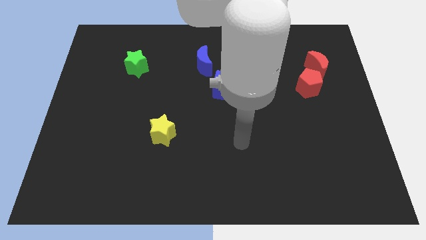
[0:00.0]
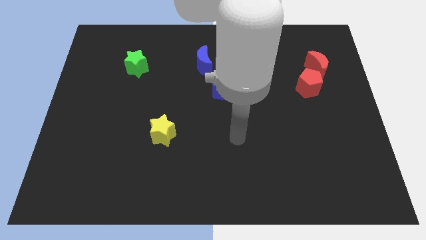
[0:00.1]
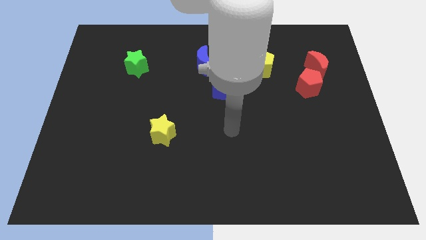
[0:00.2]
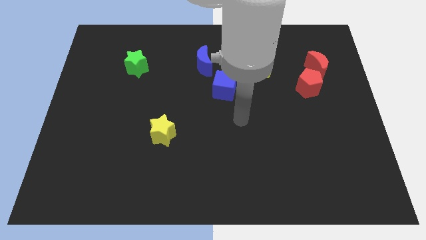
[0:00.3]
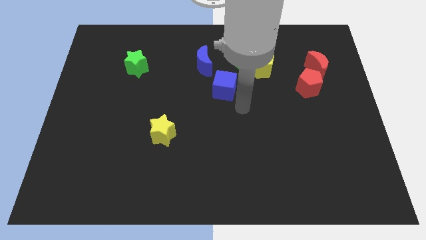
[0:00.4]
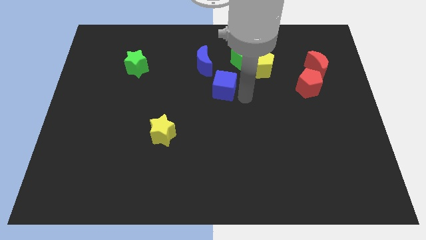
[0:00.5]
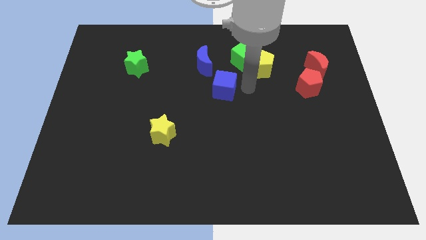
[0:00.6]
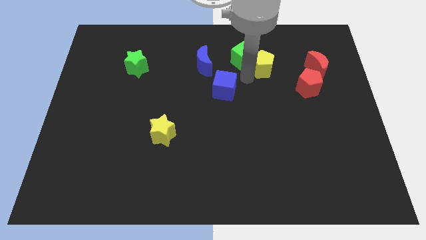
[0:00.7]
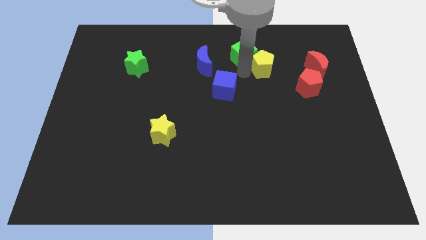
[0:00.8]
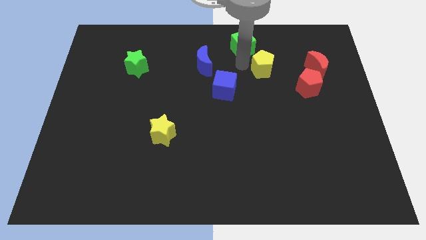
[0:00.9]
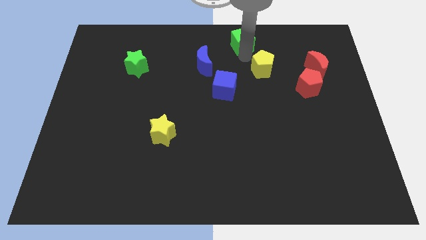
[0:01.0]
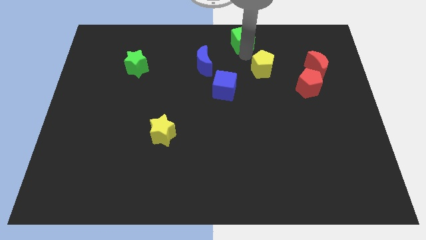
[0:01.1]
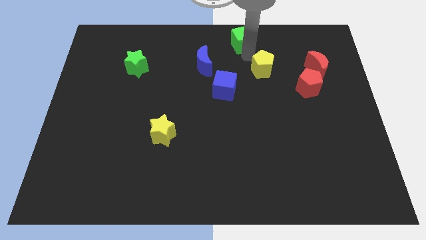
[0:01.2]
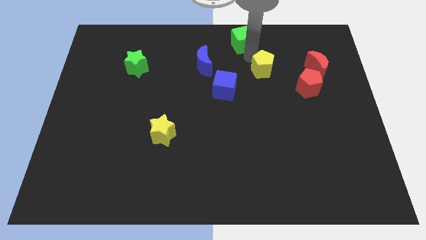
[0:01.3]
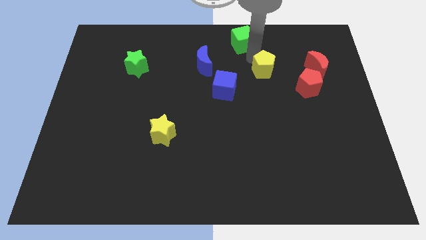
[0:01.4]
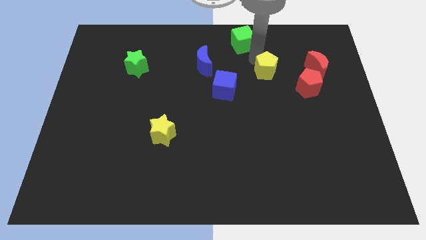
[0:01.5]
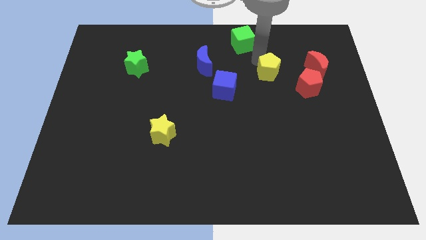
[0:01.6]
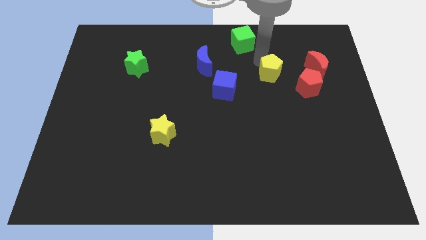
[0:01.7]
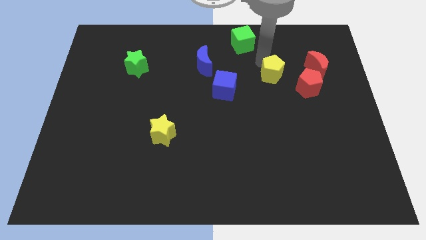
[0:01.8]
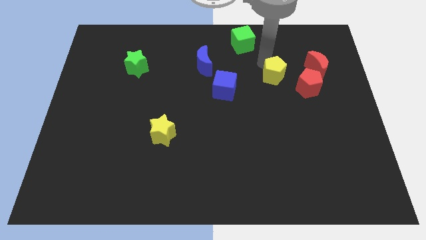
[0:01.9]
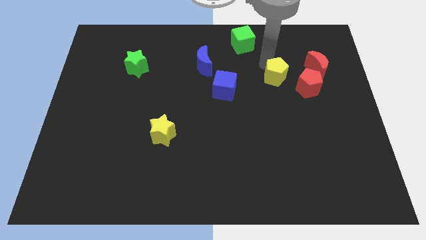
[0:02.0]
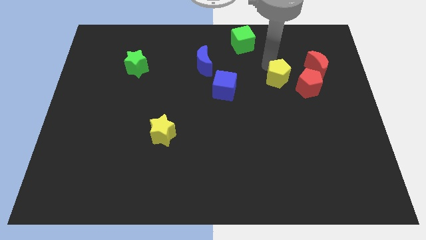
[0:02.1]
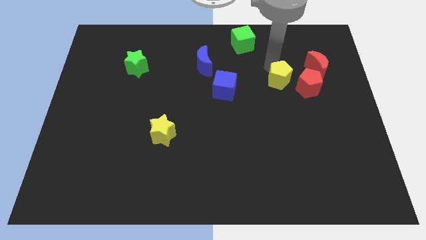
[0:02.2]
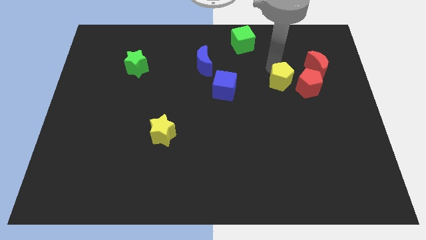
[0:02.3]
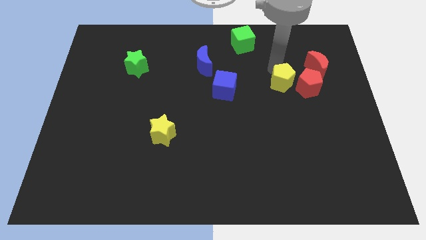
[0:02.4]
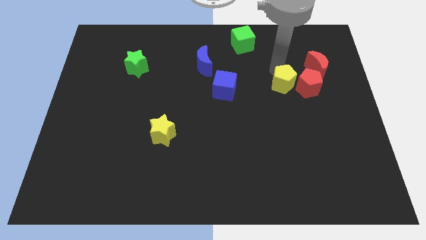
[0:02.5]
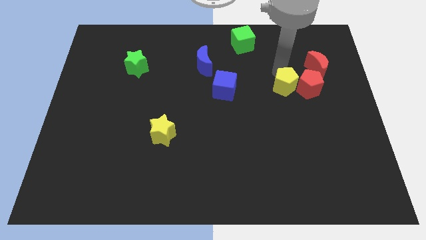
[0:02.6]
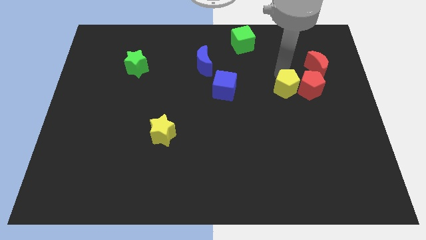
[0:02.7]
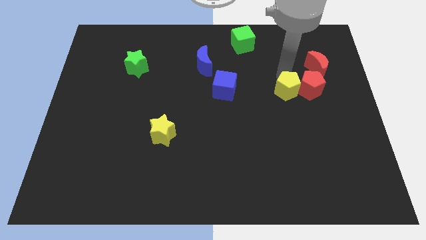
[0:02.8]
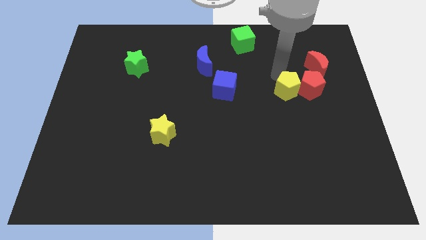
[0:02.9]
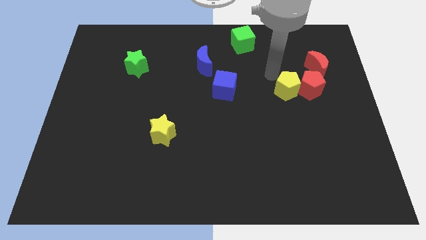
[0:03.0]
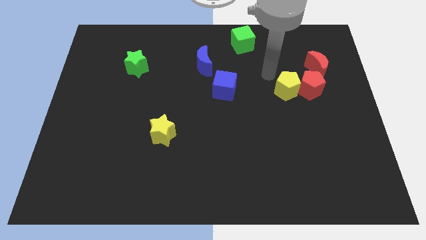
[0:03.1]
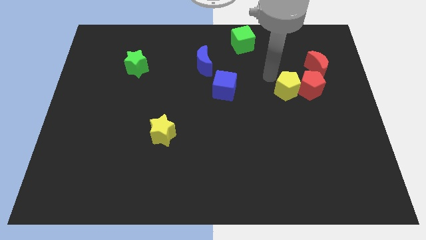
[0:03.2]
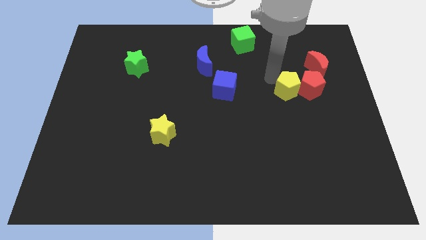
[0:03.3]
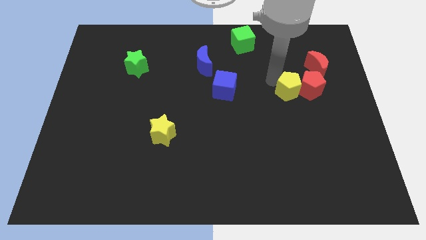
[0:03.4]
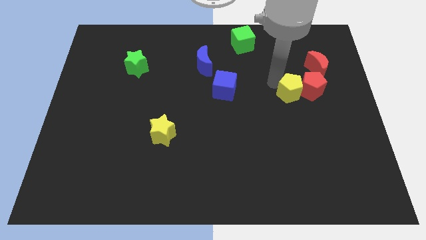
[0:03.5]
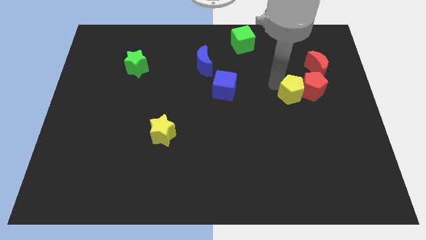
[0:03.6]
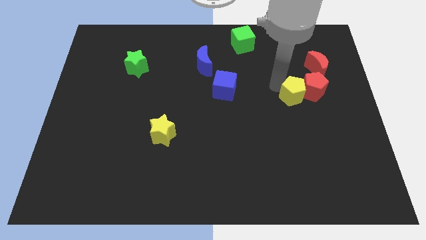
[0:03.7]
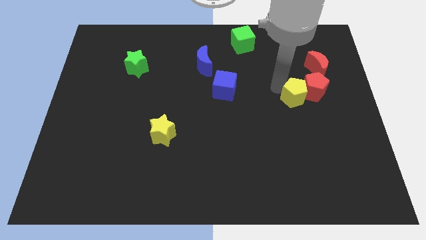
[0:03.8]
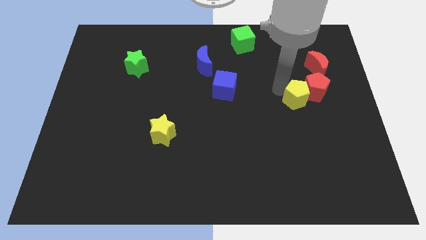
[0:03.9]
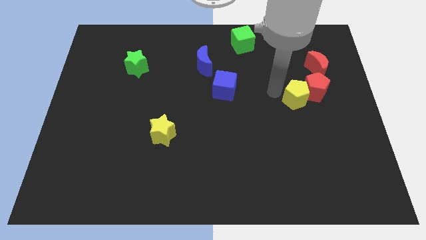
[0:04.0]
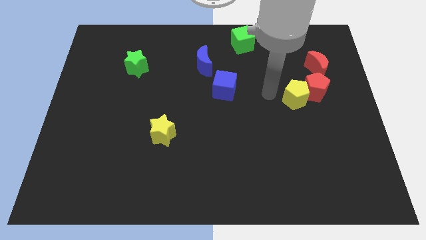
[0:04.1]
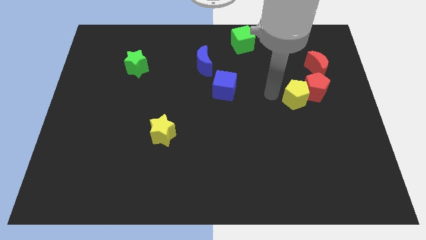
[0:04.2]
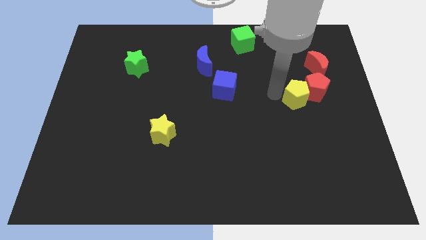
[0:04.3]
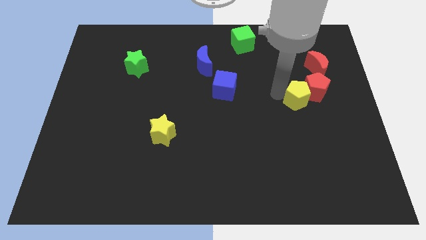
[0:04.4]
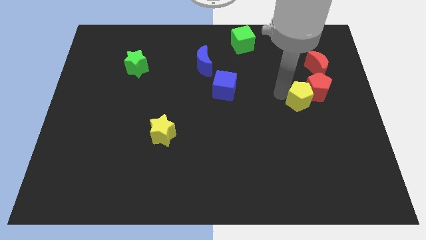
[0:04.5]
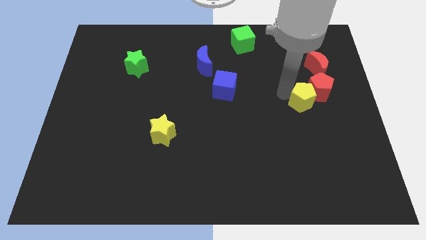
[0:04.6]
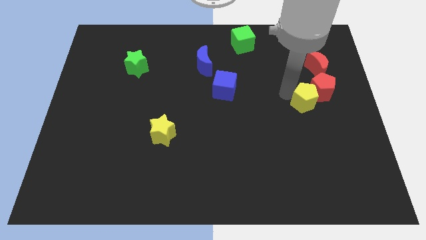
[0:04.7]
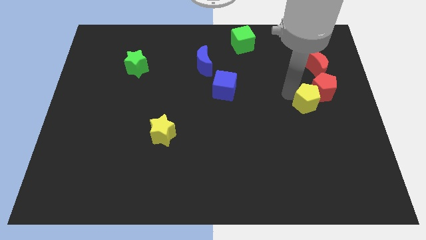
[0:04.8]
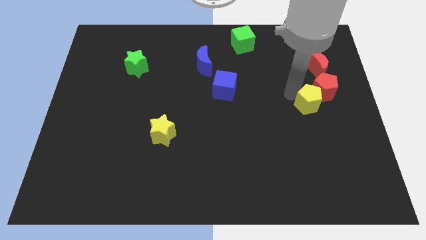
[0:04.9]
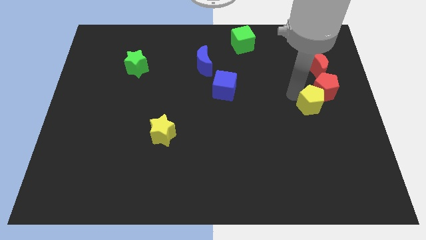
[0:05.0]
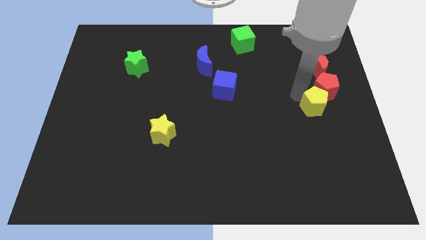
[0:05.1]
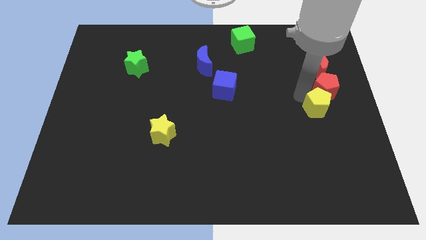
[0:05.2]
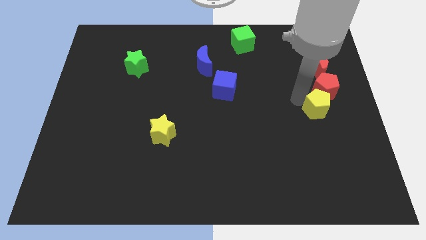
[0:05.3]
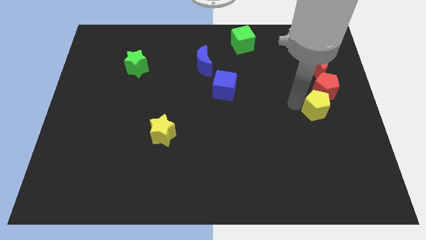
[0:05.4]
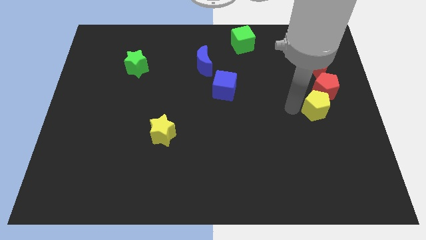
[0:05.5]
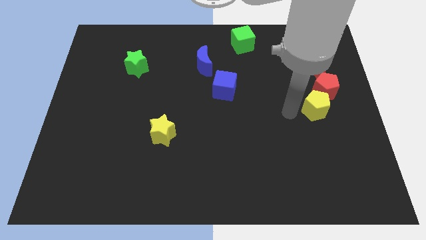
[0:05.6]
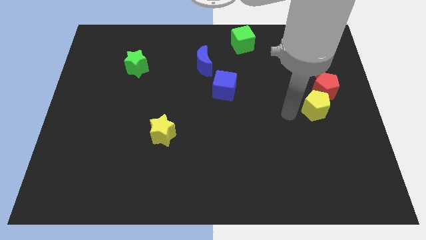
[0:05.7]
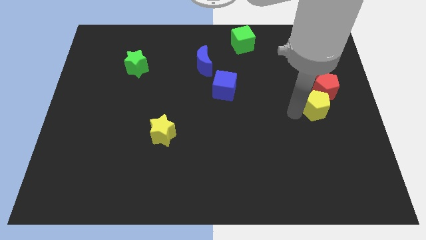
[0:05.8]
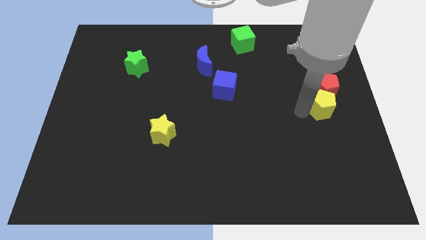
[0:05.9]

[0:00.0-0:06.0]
push the yellow pentagon to the center right
